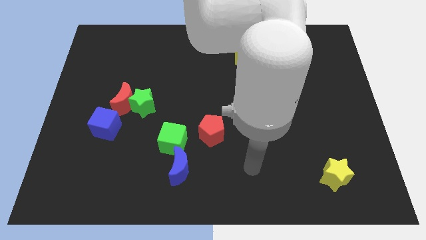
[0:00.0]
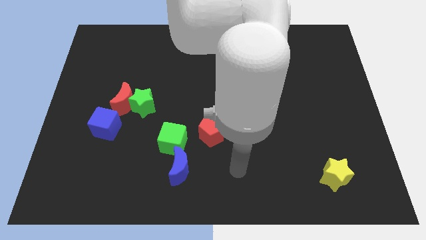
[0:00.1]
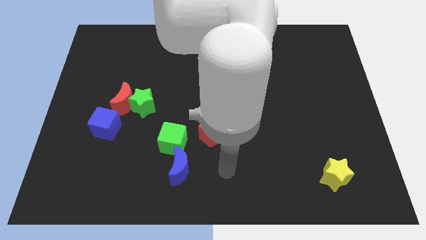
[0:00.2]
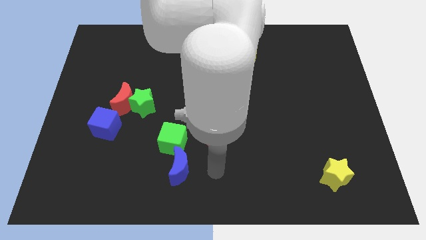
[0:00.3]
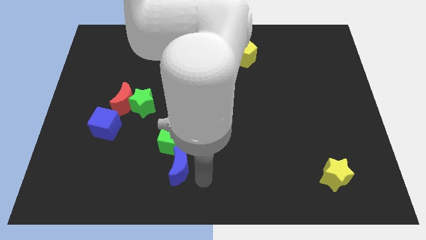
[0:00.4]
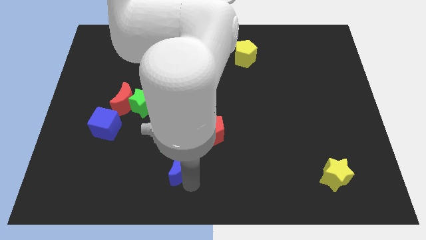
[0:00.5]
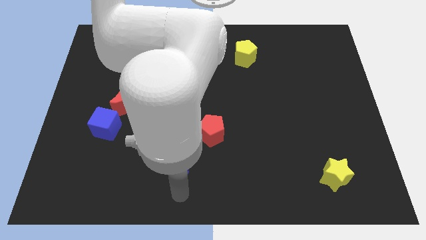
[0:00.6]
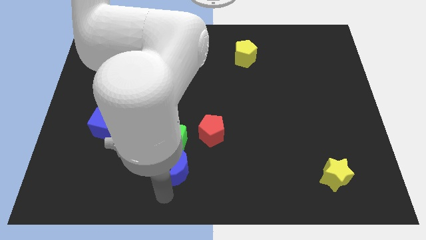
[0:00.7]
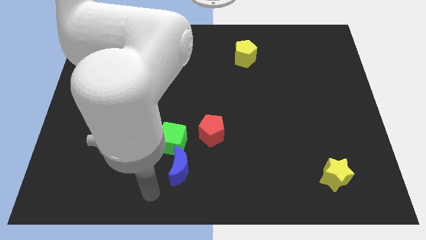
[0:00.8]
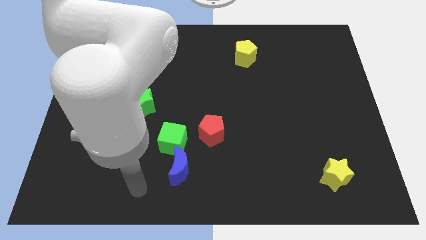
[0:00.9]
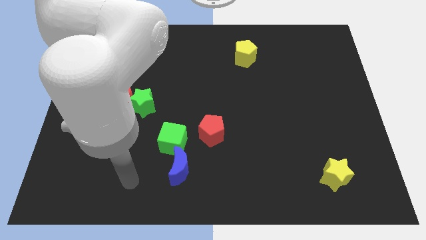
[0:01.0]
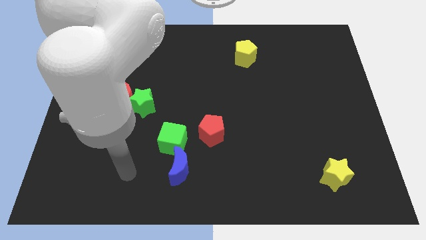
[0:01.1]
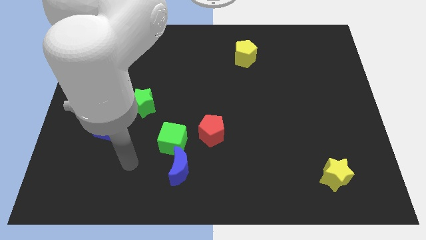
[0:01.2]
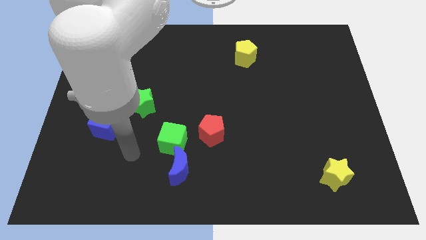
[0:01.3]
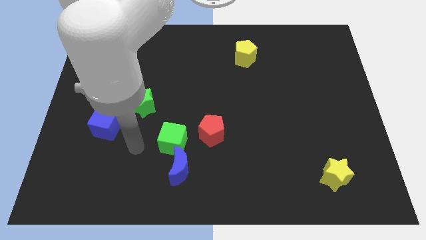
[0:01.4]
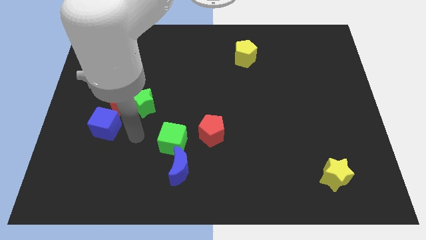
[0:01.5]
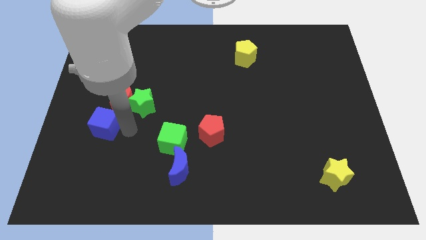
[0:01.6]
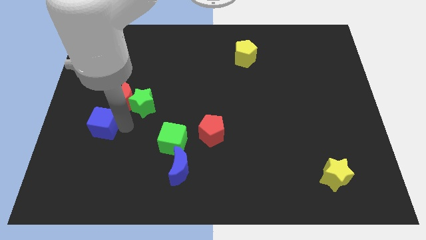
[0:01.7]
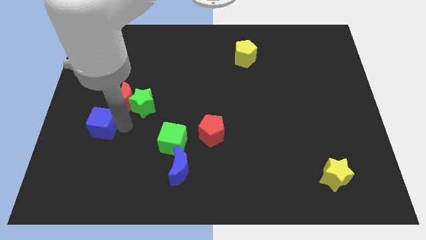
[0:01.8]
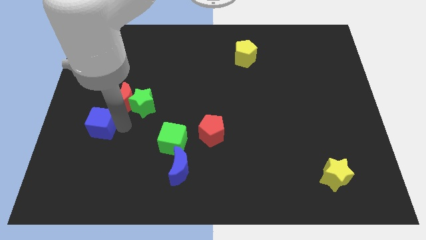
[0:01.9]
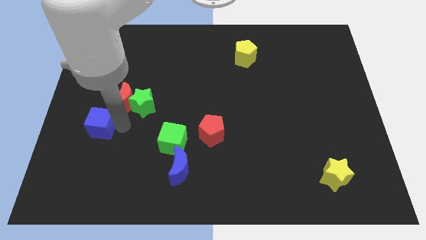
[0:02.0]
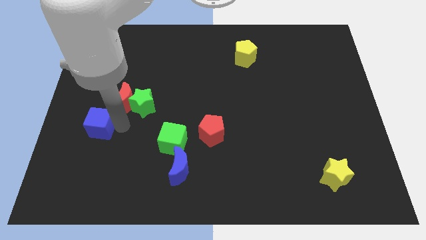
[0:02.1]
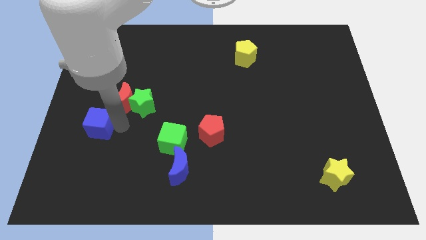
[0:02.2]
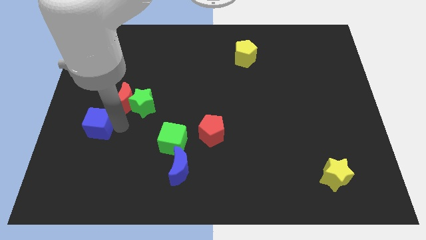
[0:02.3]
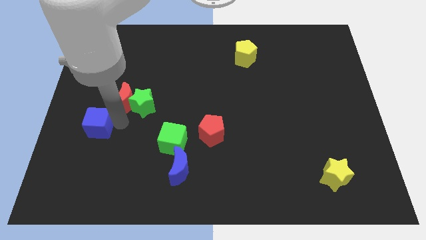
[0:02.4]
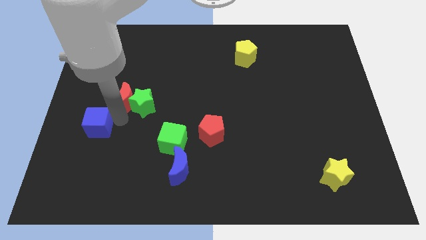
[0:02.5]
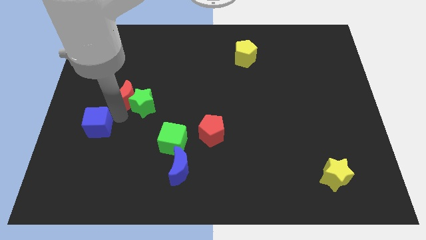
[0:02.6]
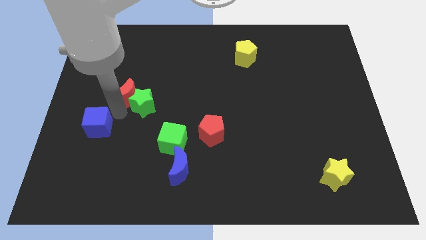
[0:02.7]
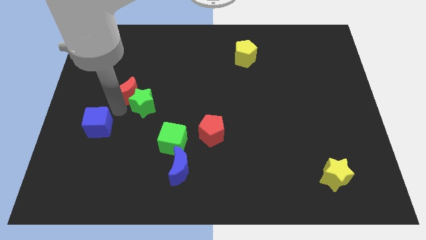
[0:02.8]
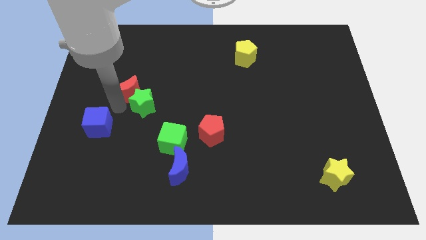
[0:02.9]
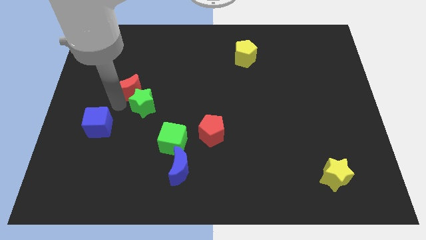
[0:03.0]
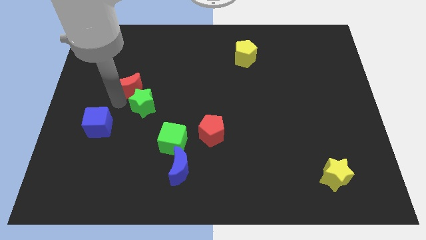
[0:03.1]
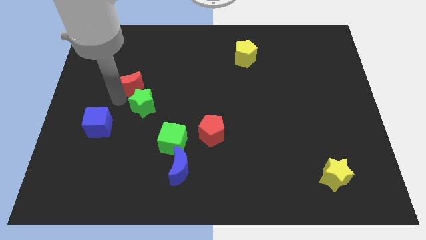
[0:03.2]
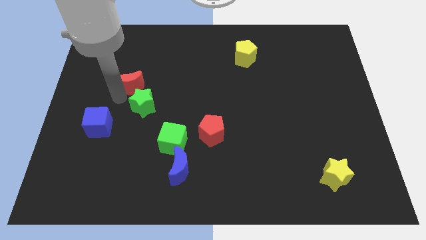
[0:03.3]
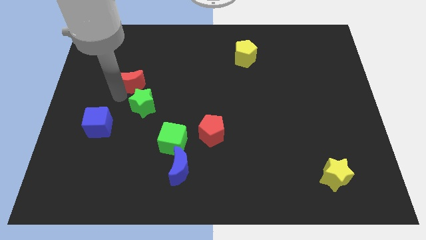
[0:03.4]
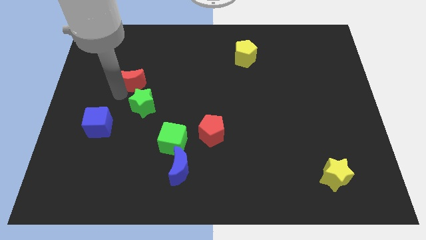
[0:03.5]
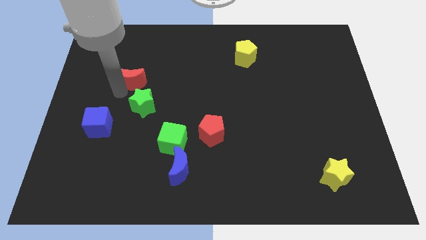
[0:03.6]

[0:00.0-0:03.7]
move the red moon away from the green star and blue cube

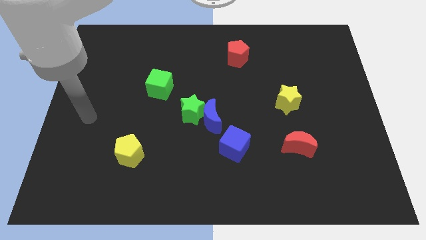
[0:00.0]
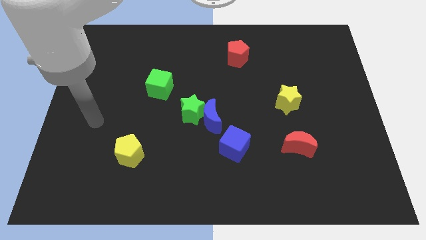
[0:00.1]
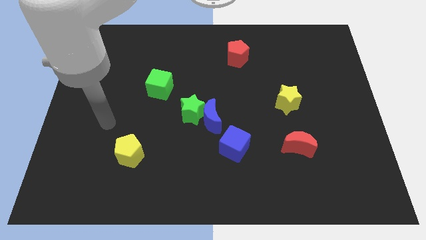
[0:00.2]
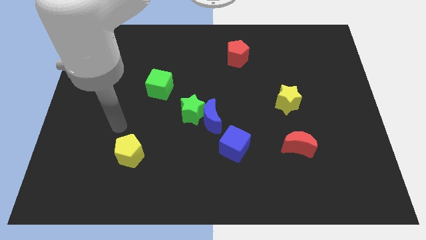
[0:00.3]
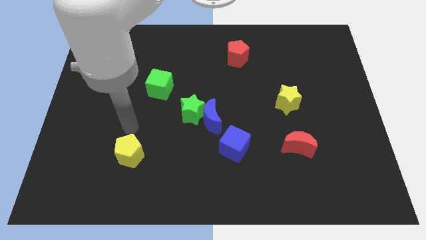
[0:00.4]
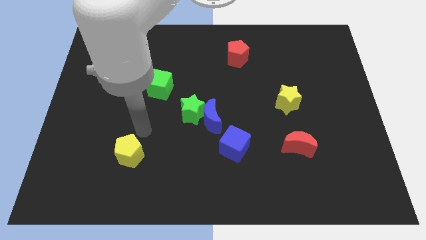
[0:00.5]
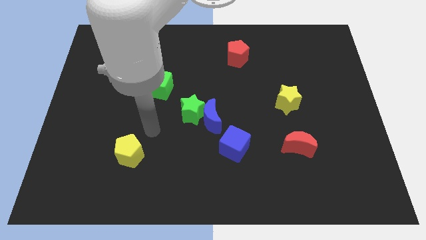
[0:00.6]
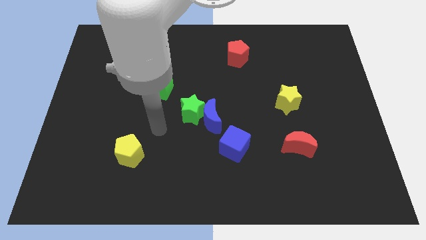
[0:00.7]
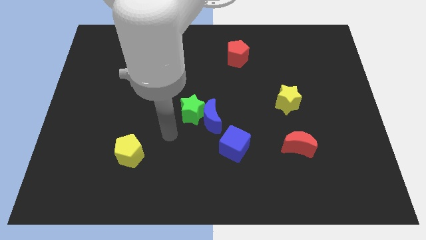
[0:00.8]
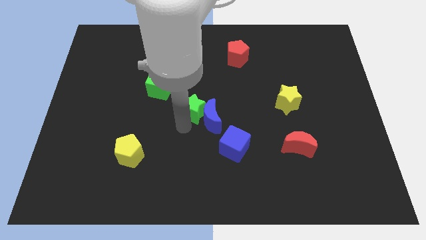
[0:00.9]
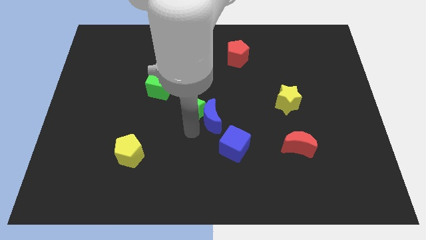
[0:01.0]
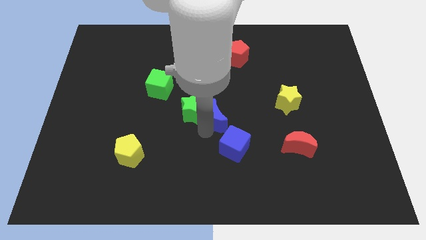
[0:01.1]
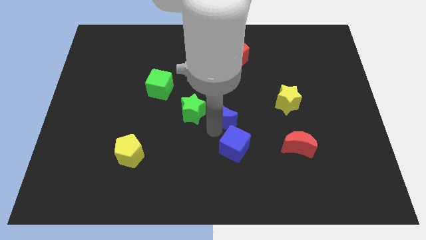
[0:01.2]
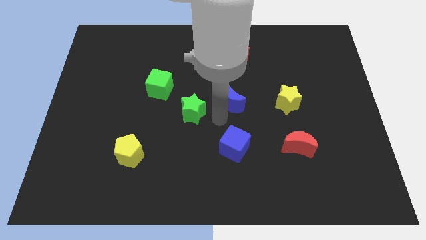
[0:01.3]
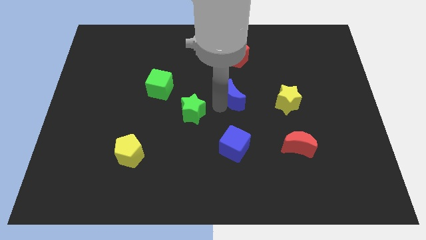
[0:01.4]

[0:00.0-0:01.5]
pull the green star apart from the blue moon

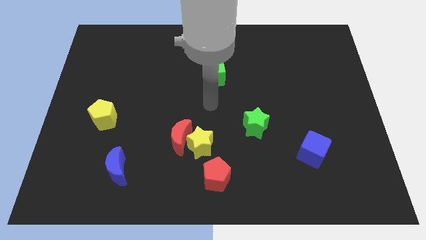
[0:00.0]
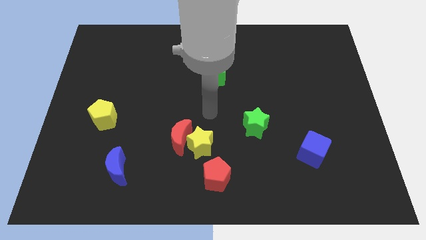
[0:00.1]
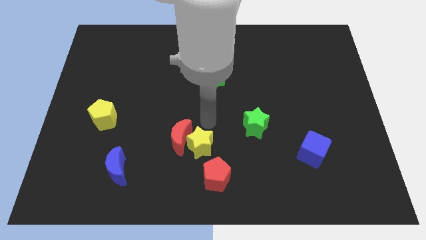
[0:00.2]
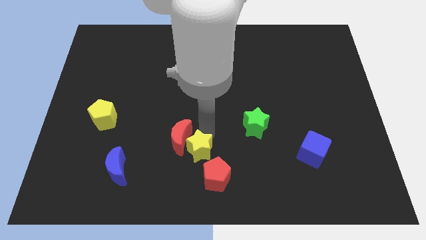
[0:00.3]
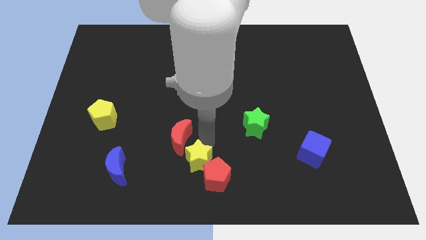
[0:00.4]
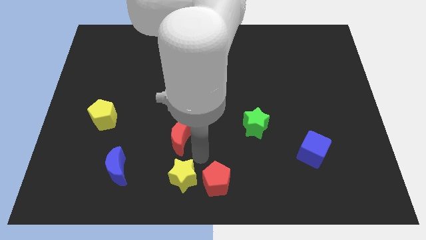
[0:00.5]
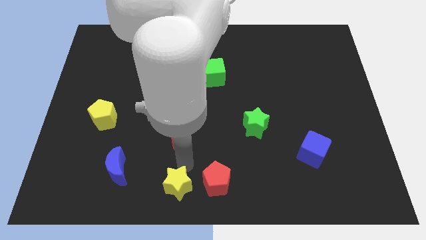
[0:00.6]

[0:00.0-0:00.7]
separate the red moon from the yellow star

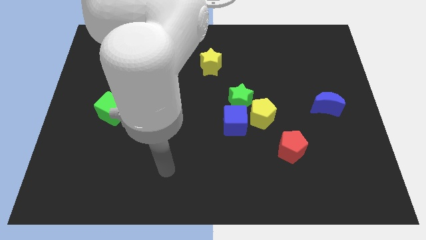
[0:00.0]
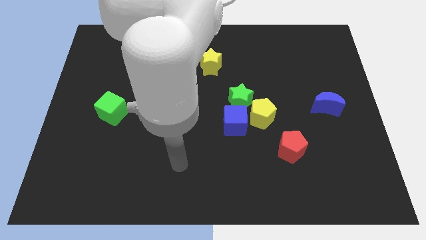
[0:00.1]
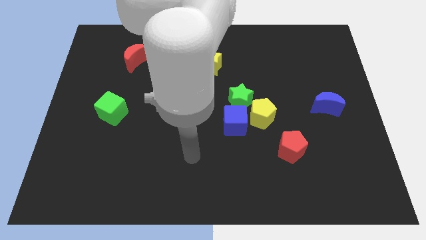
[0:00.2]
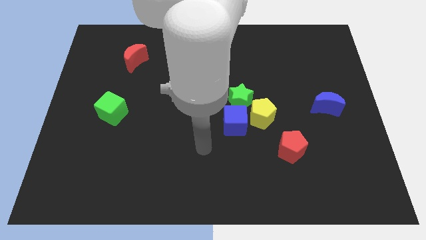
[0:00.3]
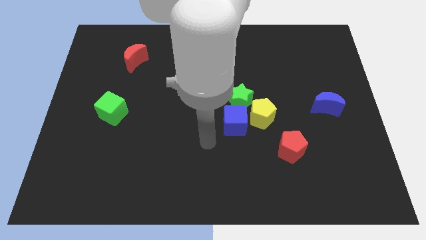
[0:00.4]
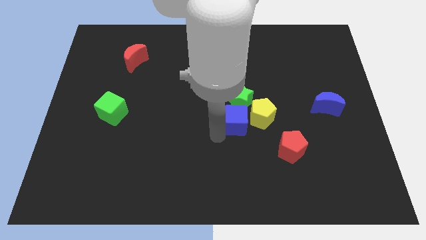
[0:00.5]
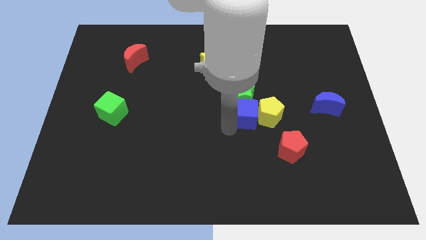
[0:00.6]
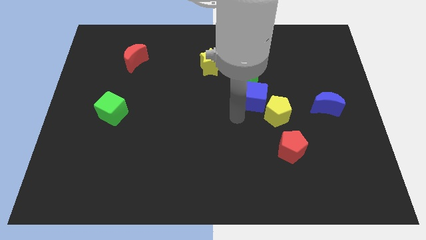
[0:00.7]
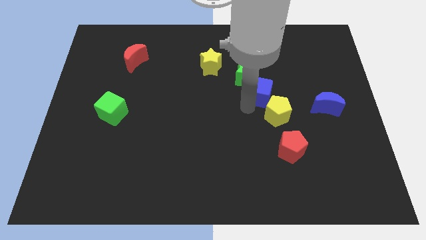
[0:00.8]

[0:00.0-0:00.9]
pull the yellow pentagon apart from the blue cube and green star

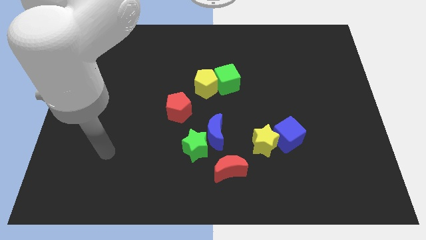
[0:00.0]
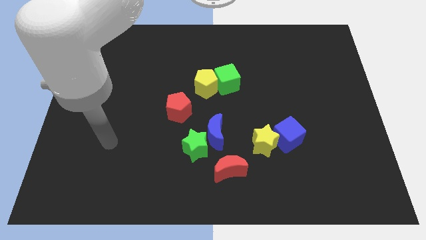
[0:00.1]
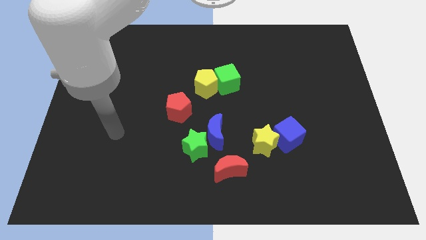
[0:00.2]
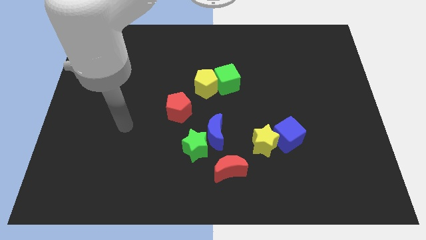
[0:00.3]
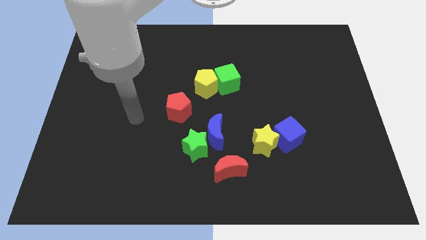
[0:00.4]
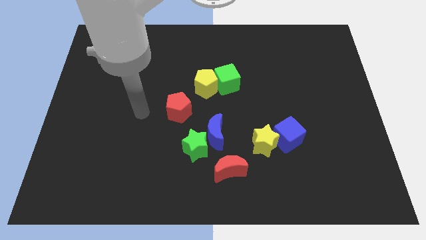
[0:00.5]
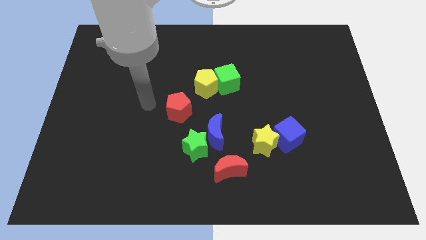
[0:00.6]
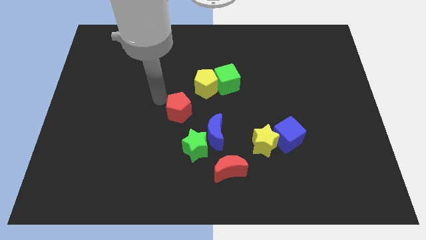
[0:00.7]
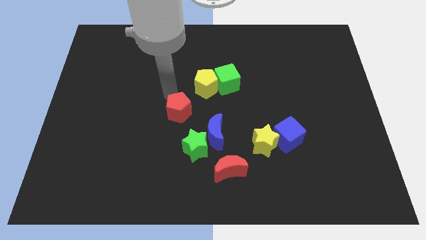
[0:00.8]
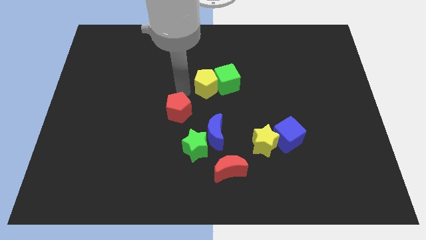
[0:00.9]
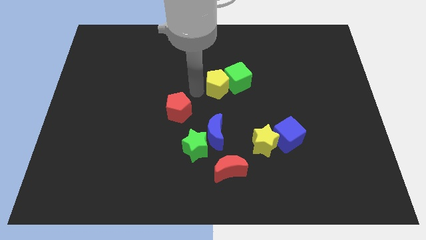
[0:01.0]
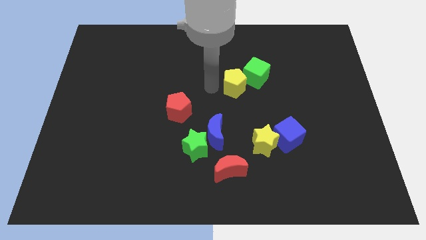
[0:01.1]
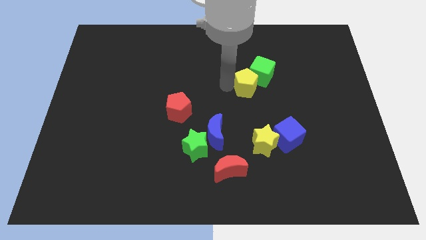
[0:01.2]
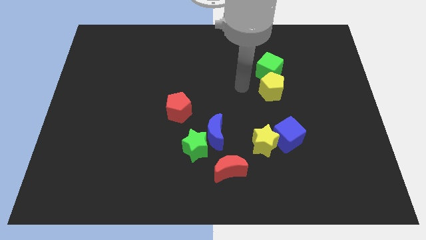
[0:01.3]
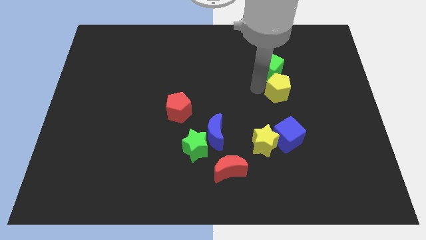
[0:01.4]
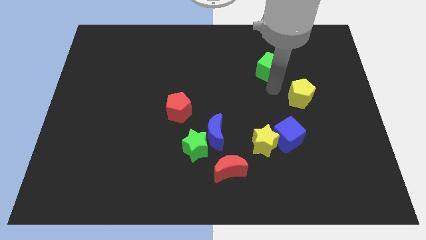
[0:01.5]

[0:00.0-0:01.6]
pull the green cube apart from the yellow pentagon

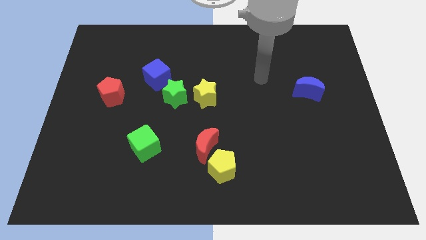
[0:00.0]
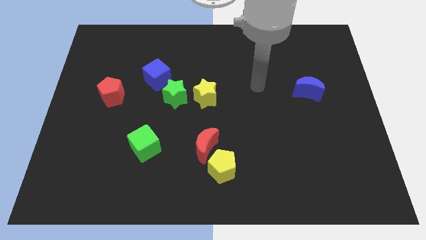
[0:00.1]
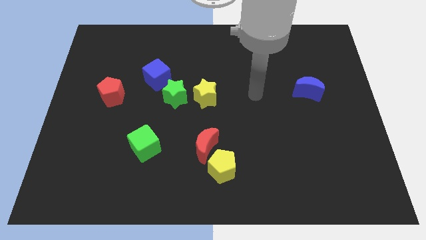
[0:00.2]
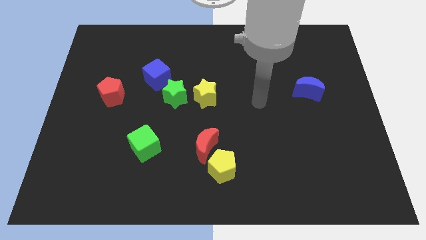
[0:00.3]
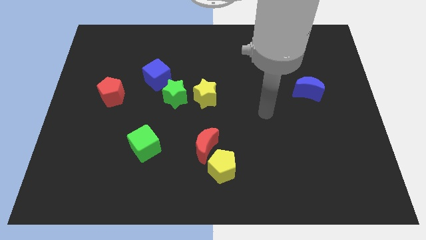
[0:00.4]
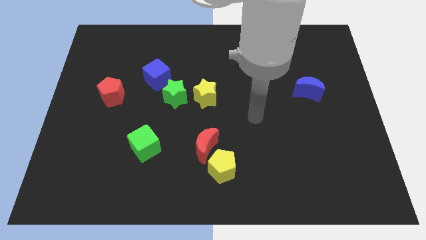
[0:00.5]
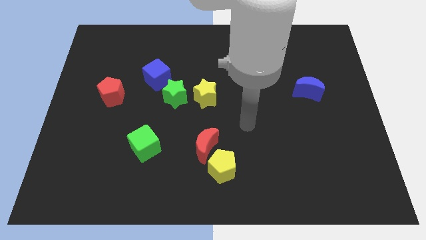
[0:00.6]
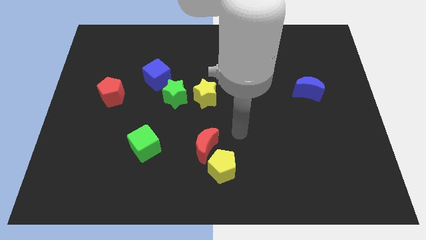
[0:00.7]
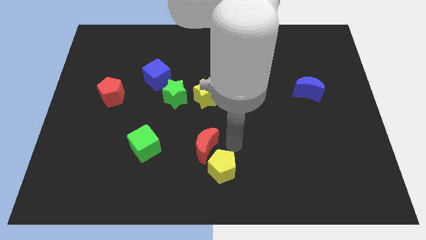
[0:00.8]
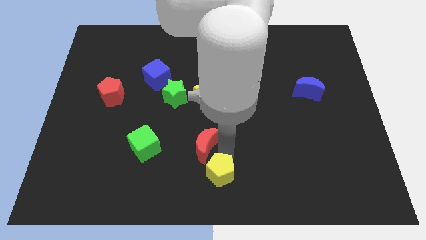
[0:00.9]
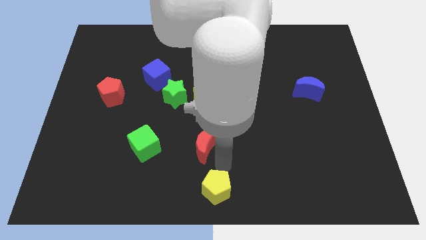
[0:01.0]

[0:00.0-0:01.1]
pull the red moon apart from the yellow pentagon
